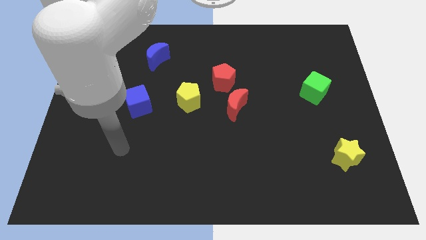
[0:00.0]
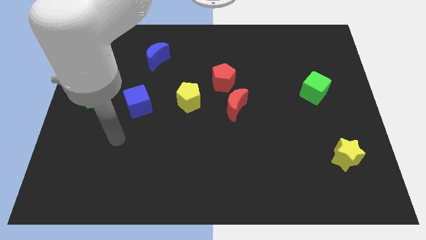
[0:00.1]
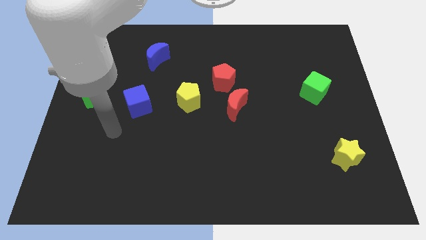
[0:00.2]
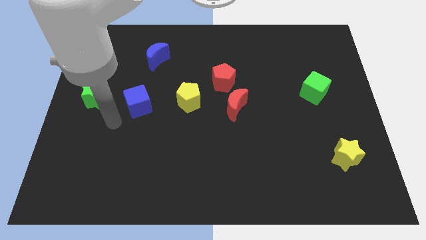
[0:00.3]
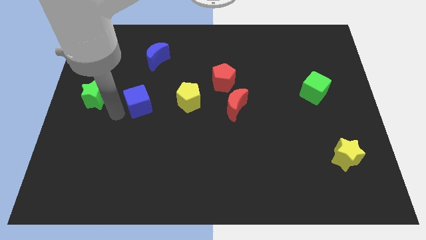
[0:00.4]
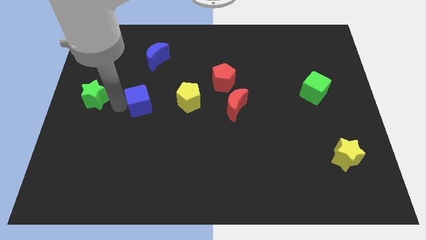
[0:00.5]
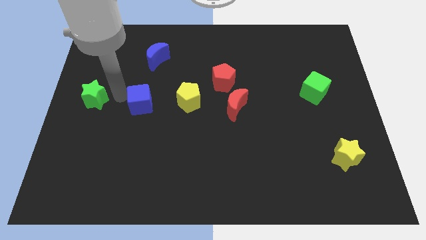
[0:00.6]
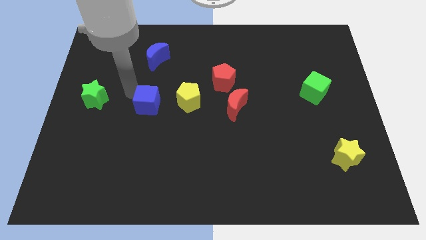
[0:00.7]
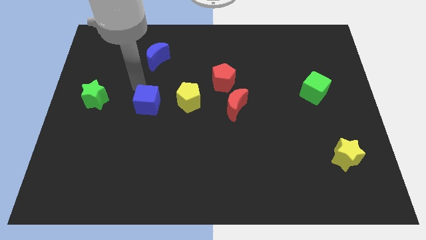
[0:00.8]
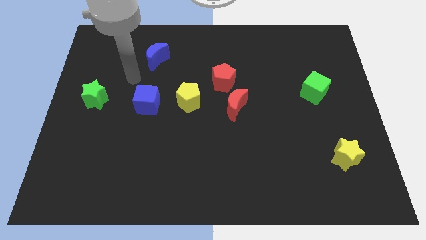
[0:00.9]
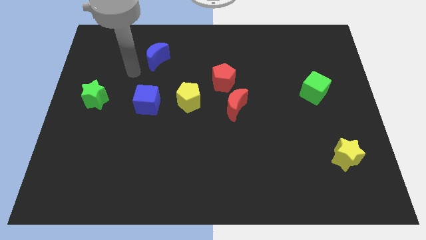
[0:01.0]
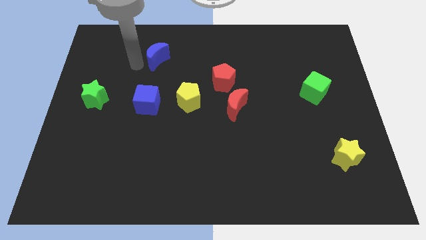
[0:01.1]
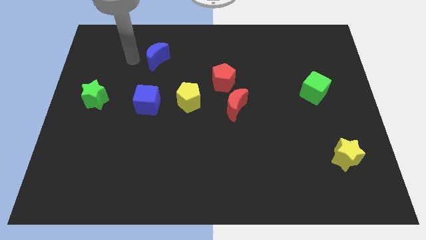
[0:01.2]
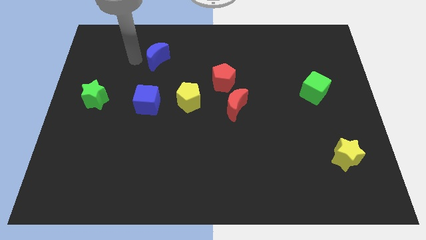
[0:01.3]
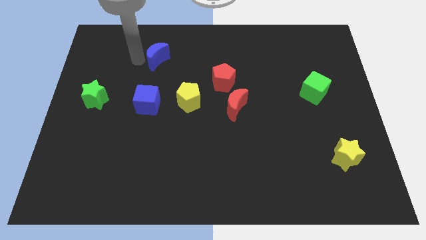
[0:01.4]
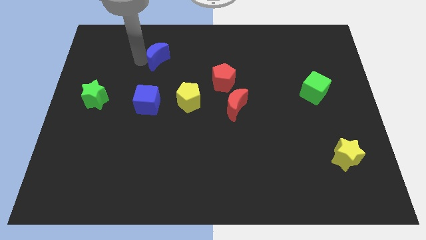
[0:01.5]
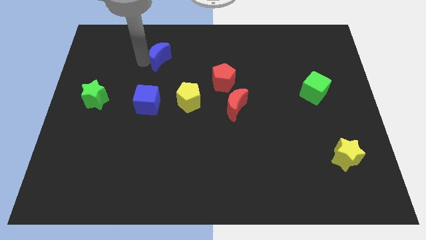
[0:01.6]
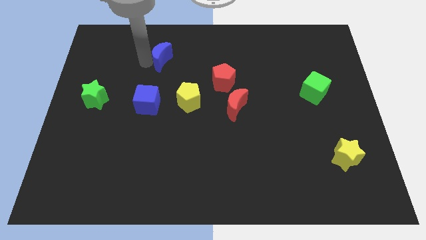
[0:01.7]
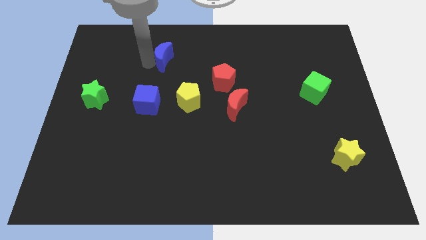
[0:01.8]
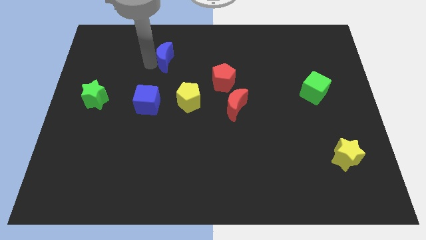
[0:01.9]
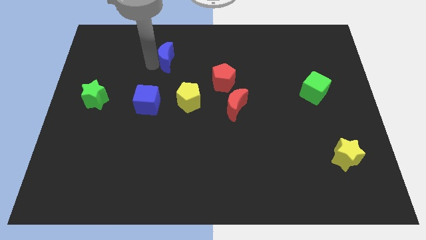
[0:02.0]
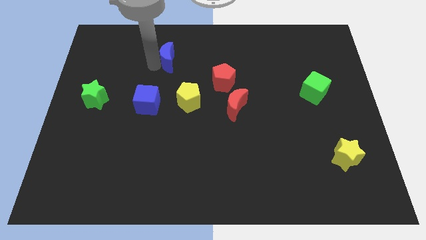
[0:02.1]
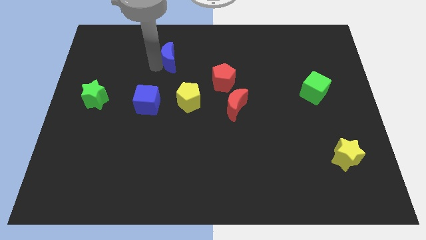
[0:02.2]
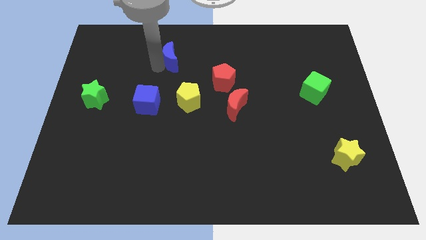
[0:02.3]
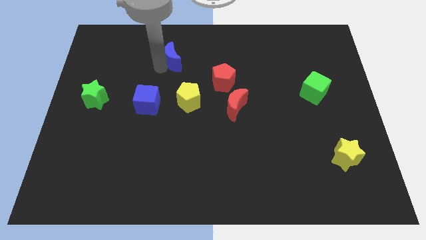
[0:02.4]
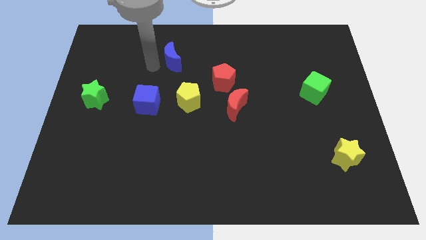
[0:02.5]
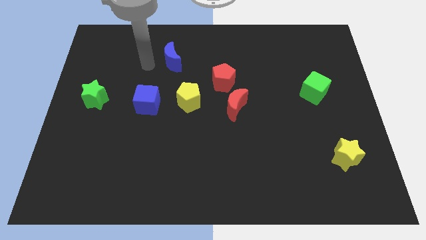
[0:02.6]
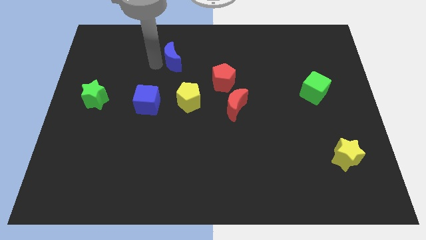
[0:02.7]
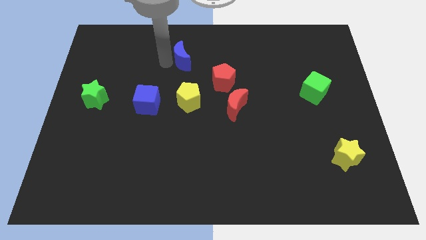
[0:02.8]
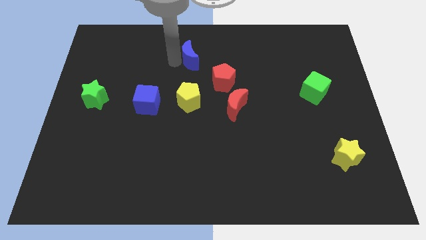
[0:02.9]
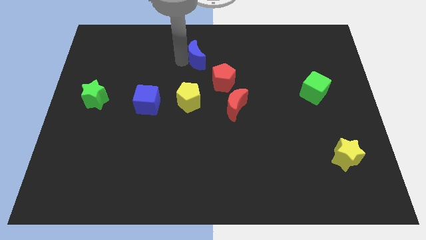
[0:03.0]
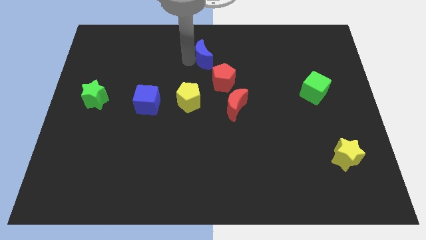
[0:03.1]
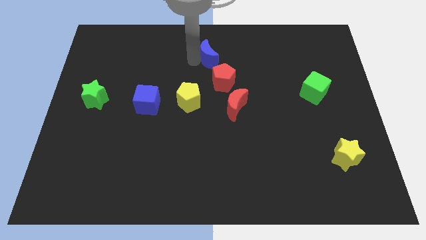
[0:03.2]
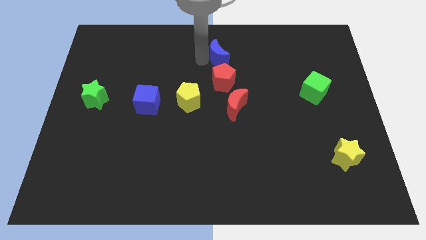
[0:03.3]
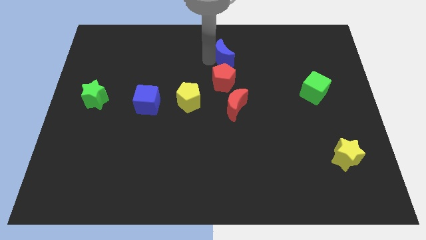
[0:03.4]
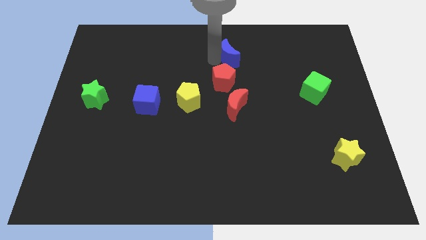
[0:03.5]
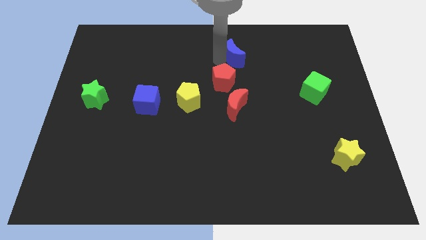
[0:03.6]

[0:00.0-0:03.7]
move the blue moon to the right

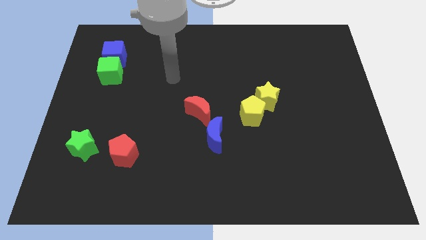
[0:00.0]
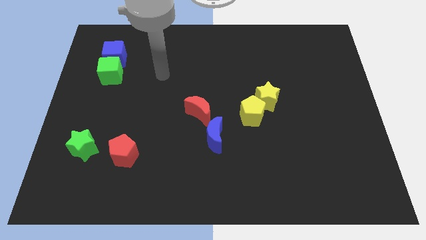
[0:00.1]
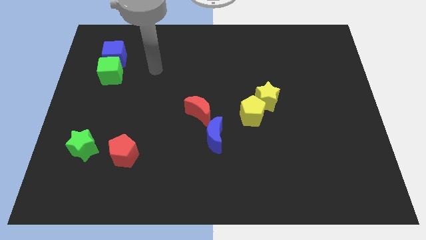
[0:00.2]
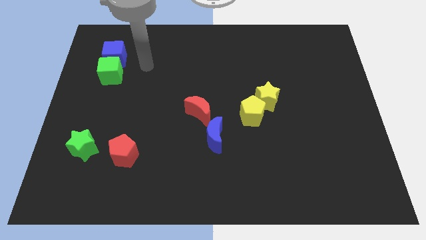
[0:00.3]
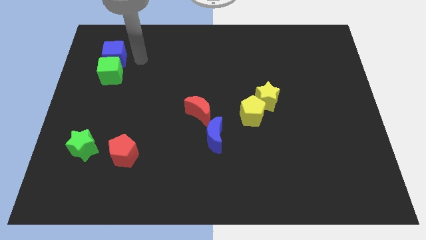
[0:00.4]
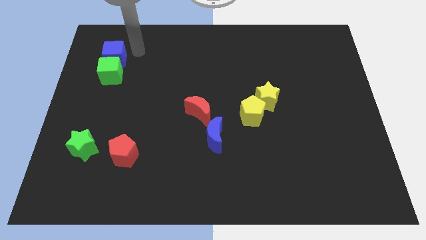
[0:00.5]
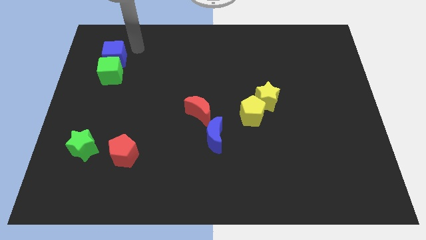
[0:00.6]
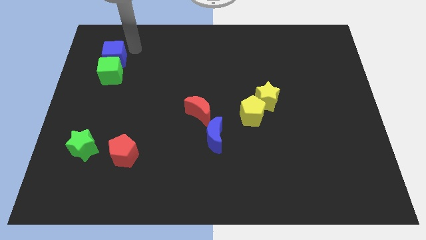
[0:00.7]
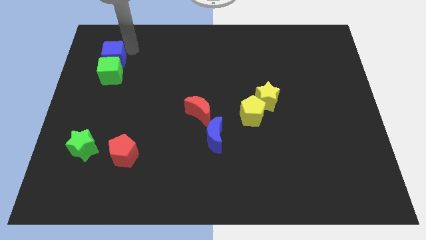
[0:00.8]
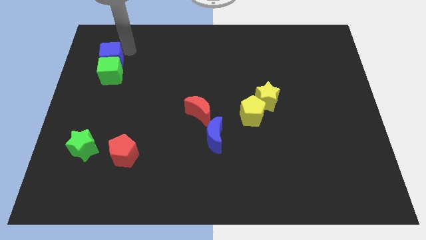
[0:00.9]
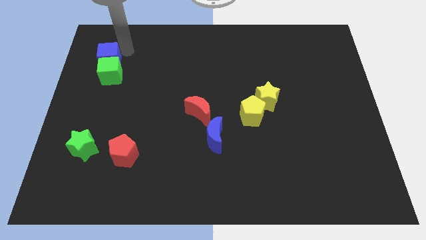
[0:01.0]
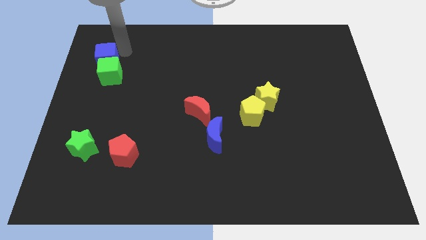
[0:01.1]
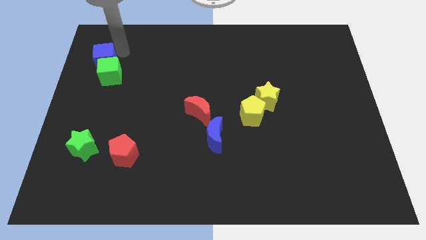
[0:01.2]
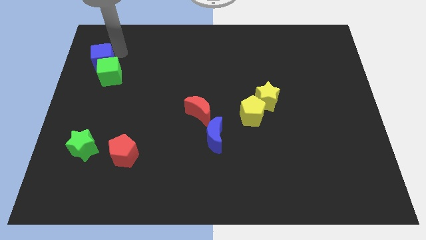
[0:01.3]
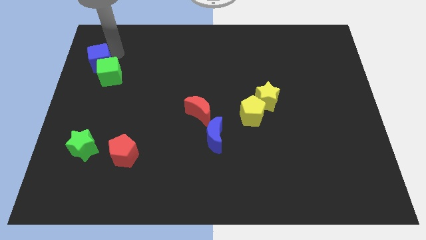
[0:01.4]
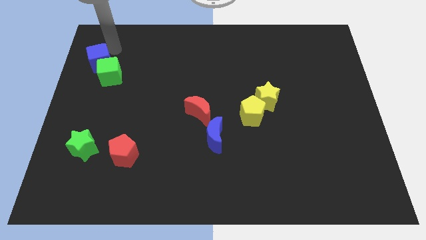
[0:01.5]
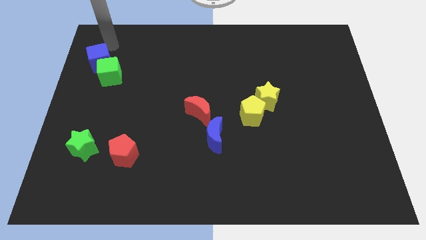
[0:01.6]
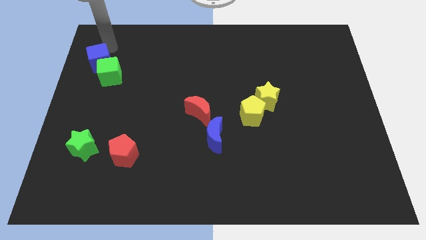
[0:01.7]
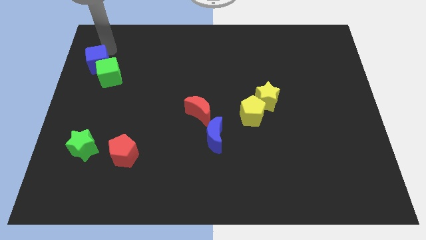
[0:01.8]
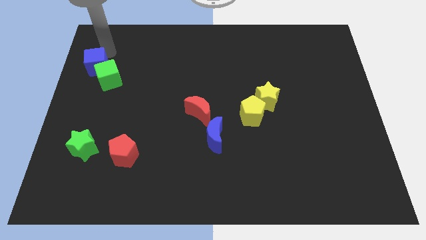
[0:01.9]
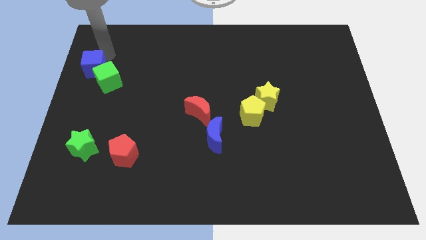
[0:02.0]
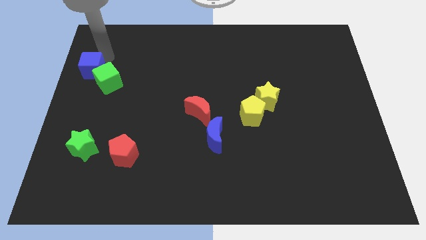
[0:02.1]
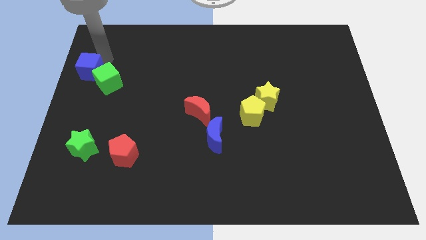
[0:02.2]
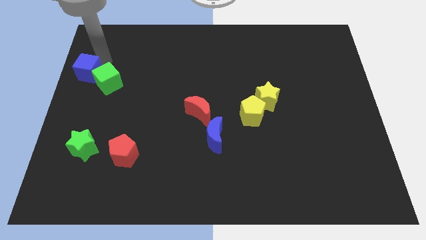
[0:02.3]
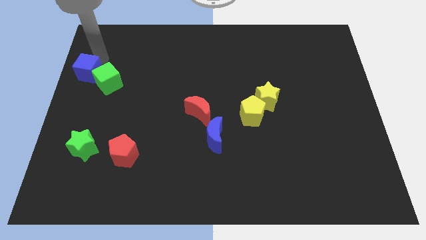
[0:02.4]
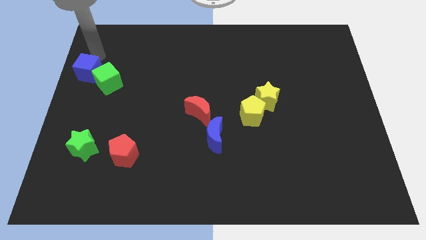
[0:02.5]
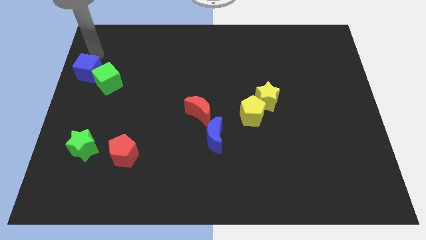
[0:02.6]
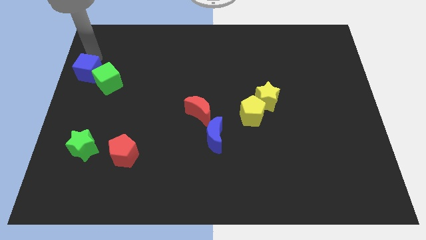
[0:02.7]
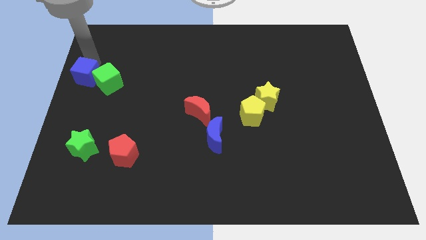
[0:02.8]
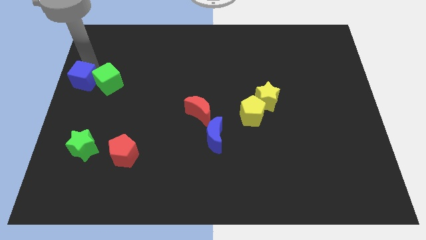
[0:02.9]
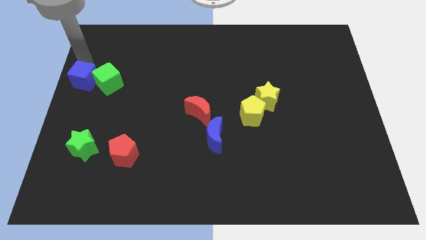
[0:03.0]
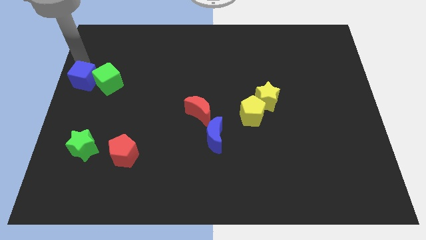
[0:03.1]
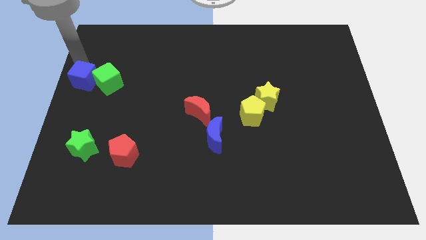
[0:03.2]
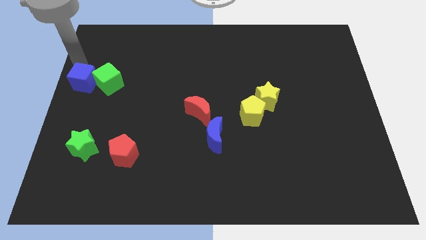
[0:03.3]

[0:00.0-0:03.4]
move the blue cube down a little

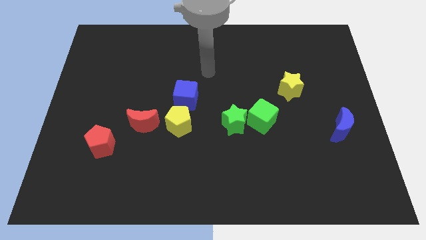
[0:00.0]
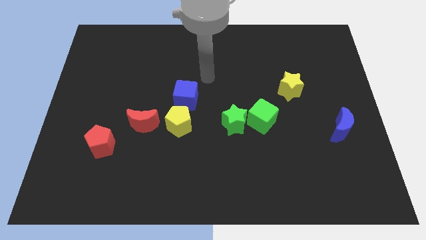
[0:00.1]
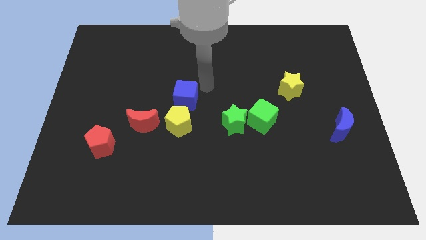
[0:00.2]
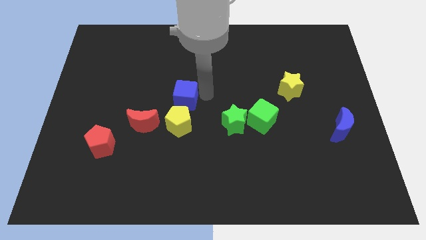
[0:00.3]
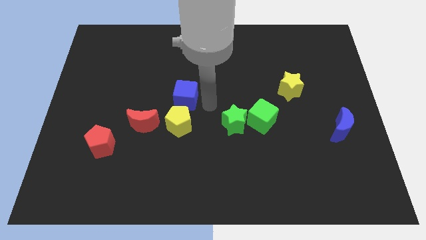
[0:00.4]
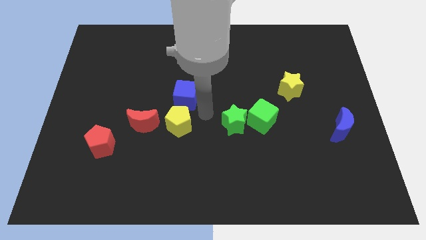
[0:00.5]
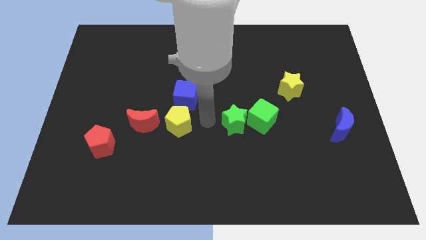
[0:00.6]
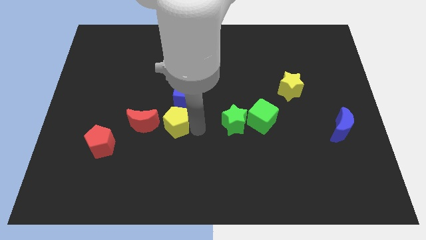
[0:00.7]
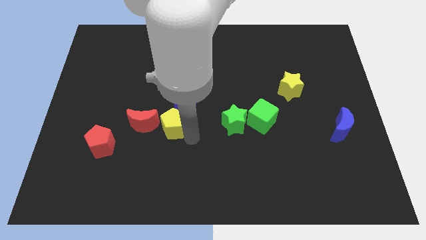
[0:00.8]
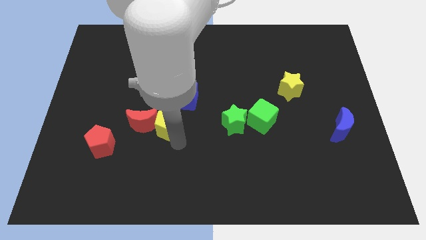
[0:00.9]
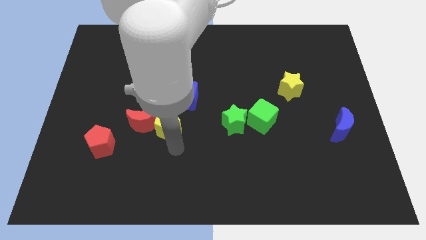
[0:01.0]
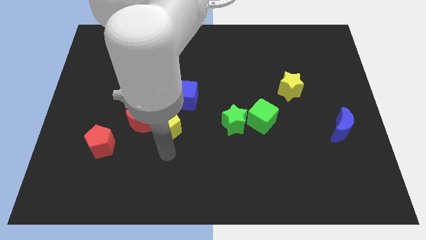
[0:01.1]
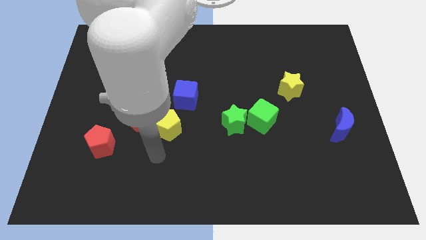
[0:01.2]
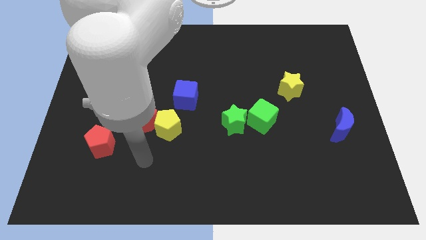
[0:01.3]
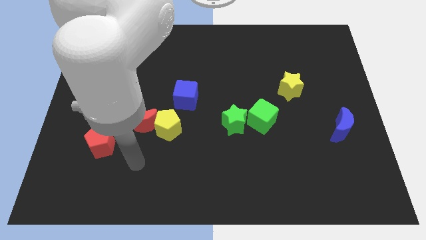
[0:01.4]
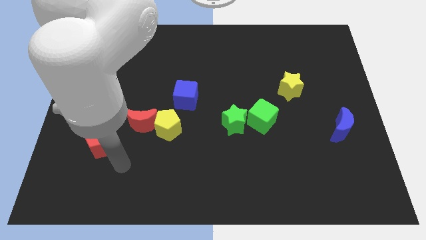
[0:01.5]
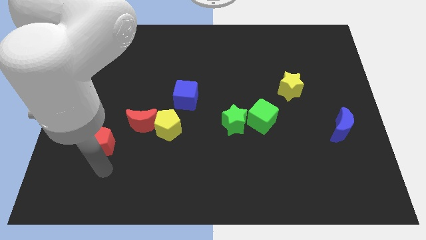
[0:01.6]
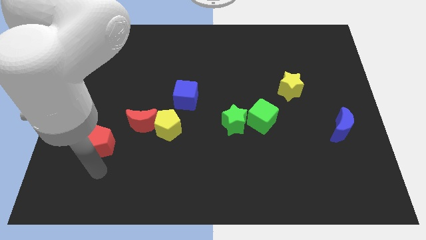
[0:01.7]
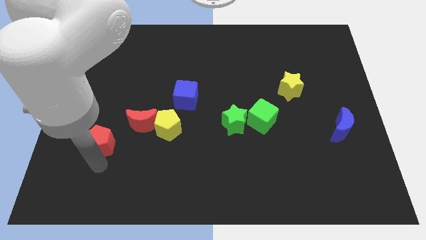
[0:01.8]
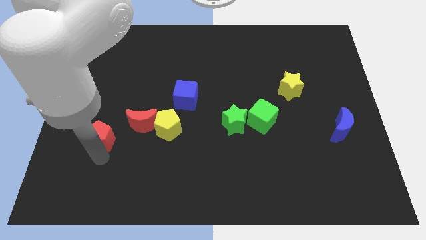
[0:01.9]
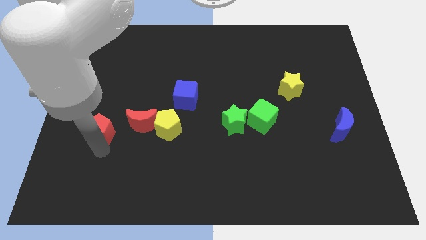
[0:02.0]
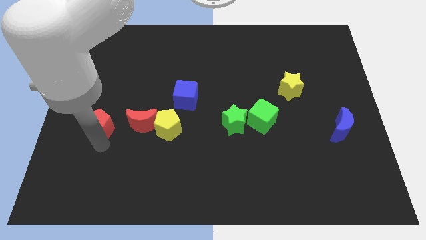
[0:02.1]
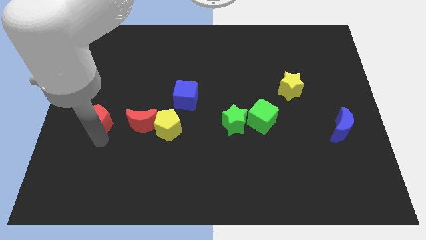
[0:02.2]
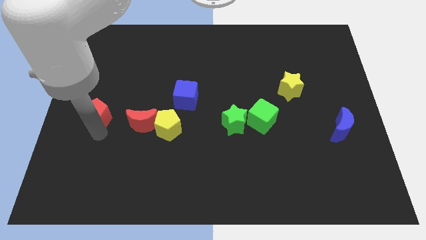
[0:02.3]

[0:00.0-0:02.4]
move the red pentagon upwards a bit
